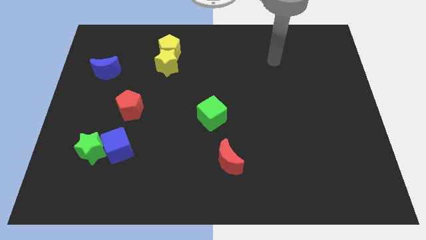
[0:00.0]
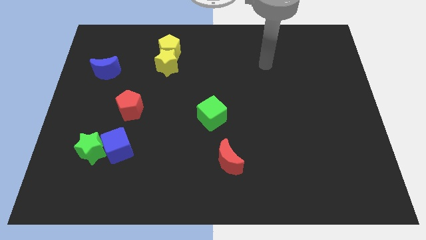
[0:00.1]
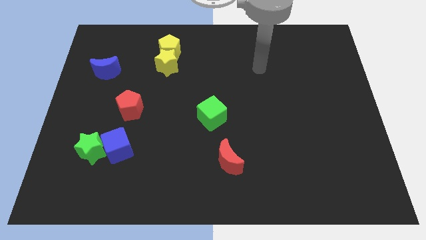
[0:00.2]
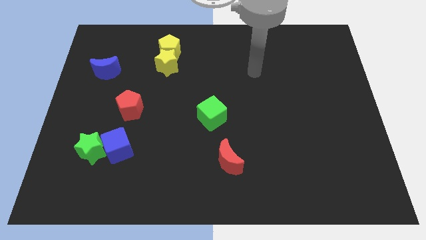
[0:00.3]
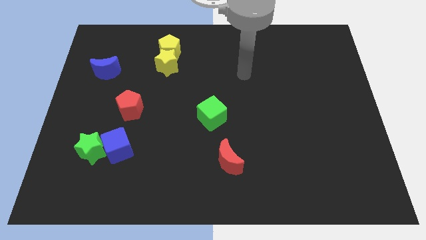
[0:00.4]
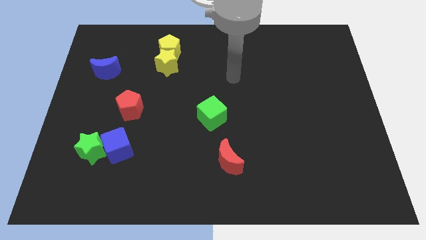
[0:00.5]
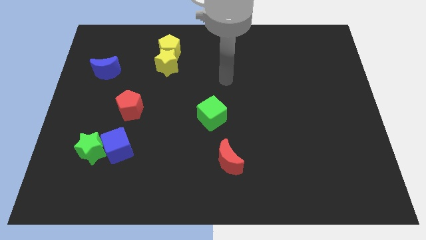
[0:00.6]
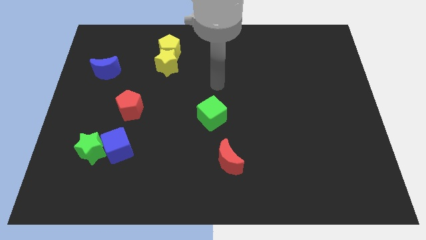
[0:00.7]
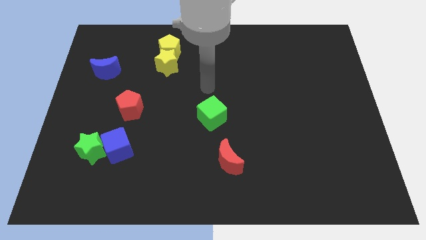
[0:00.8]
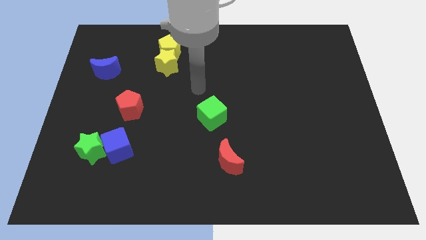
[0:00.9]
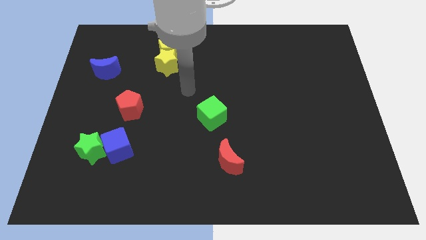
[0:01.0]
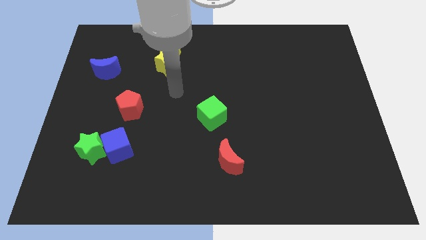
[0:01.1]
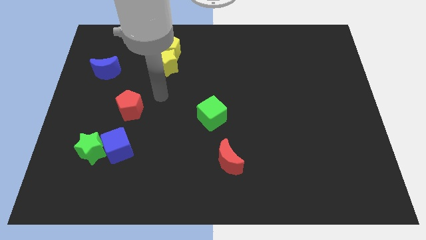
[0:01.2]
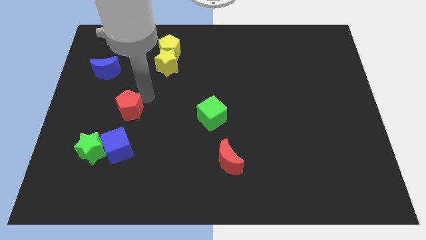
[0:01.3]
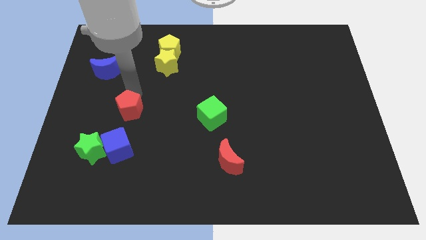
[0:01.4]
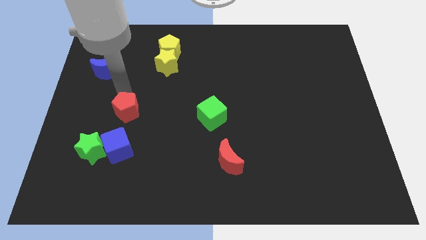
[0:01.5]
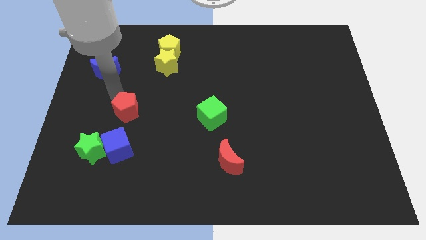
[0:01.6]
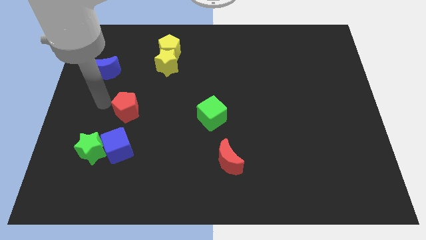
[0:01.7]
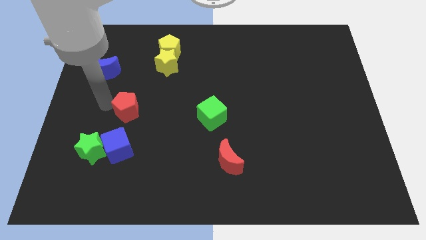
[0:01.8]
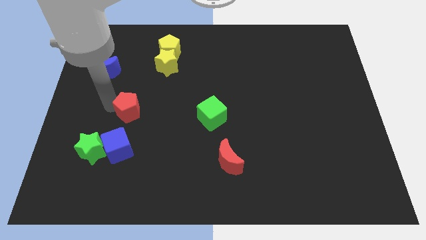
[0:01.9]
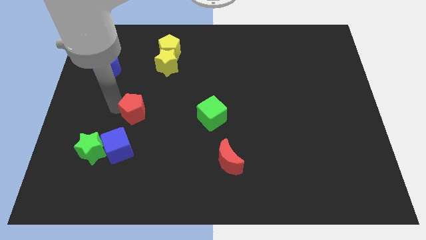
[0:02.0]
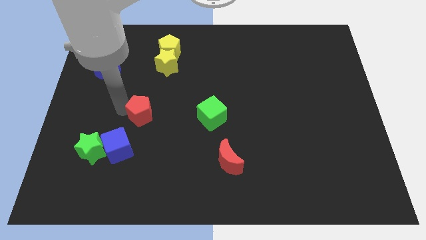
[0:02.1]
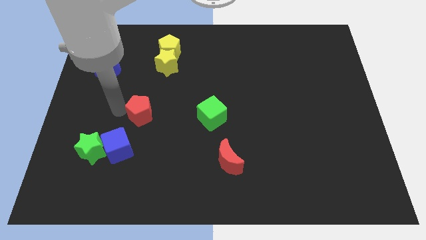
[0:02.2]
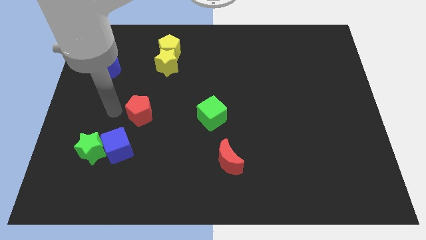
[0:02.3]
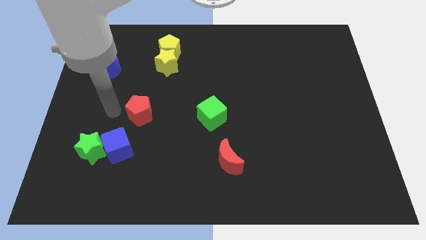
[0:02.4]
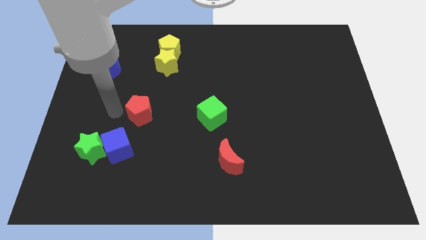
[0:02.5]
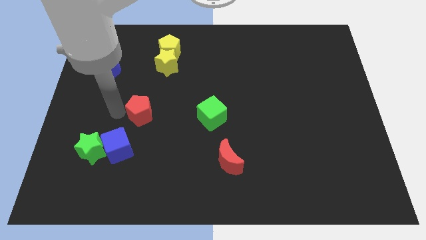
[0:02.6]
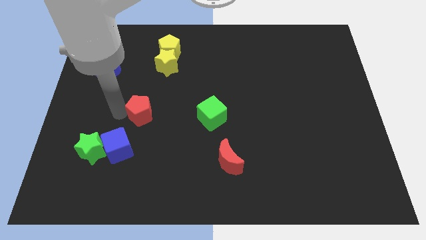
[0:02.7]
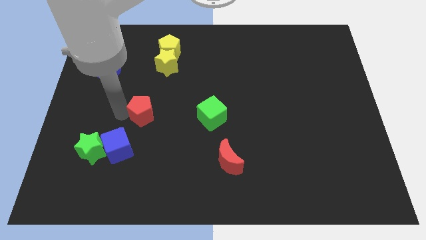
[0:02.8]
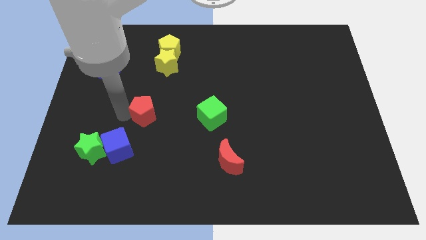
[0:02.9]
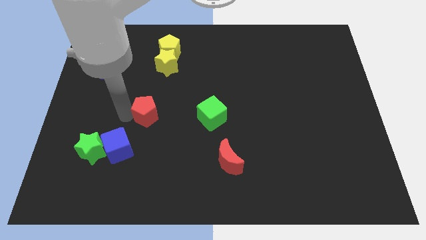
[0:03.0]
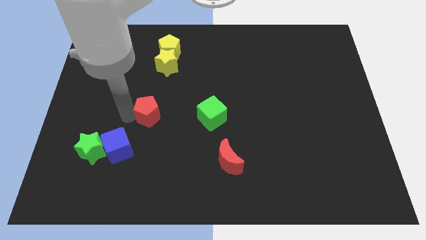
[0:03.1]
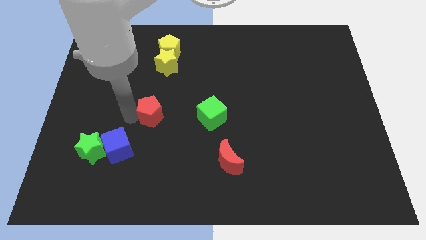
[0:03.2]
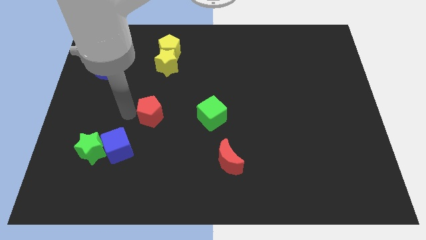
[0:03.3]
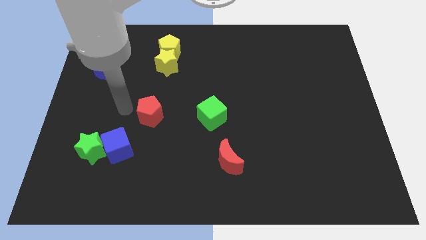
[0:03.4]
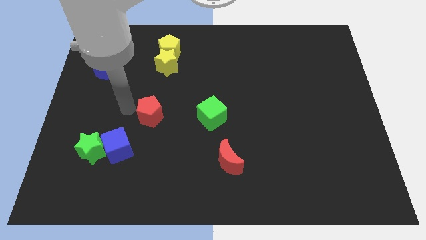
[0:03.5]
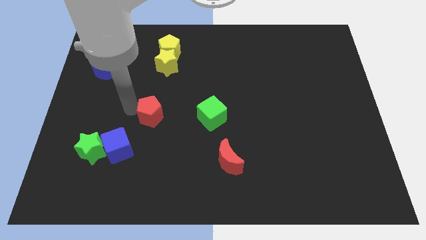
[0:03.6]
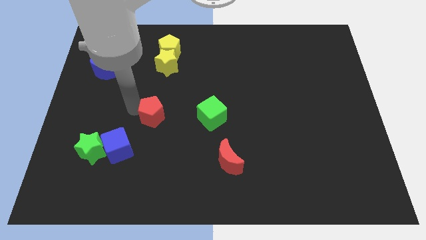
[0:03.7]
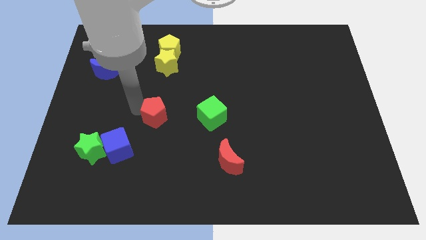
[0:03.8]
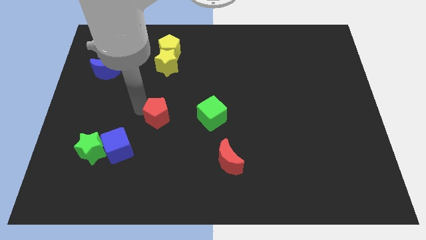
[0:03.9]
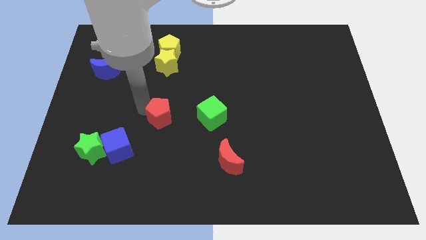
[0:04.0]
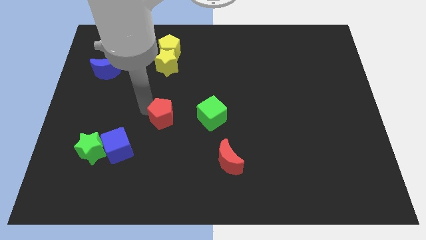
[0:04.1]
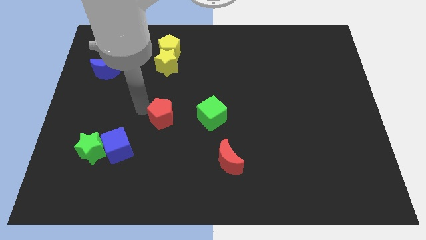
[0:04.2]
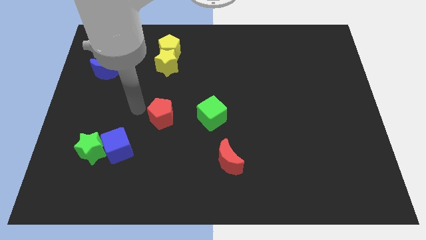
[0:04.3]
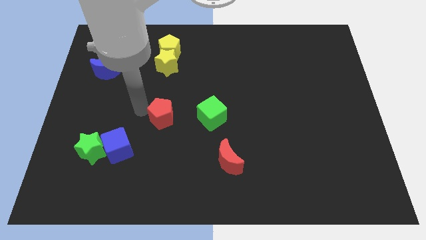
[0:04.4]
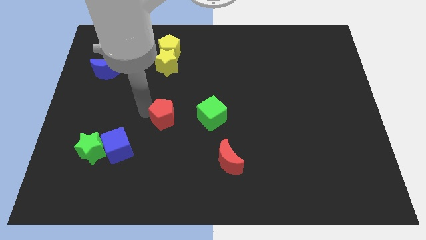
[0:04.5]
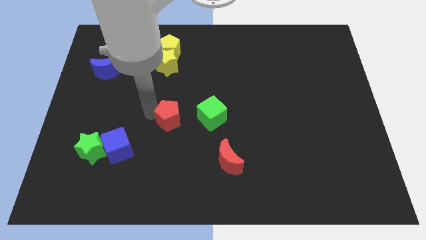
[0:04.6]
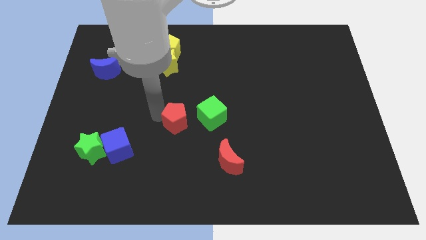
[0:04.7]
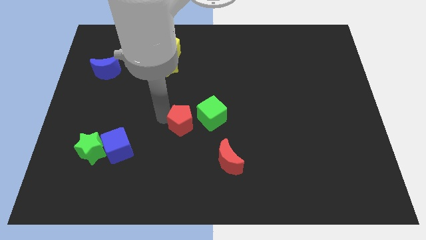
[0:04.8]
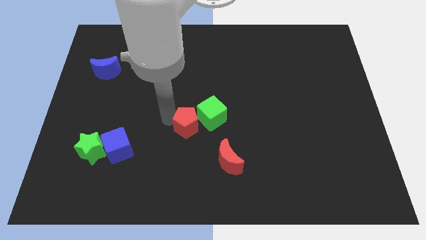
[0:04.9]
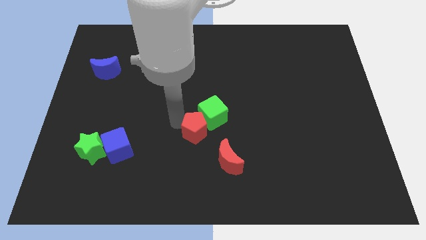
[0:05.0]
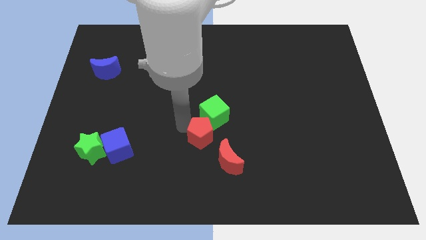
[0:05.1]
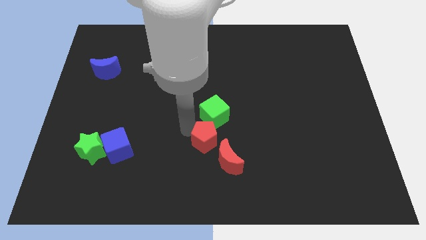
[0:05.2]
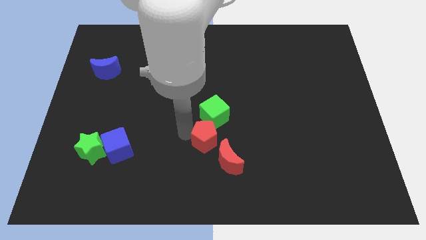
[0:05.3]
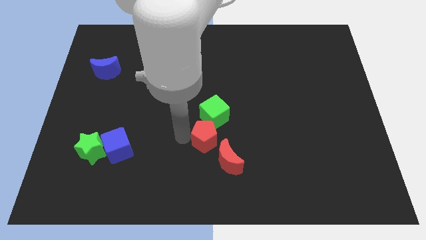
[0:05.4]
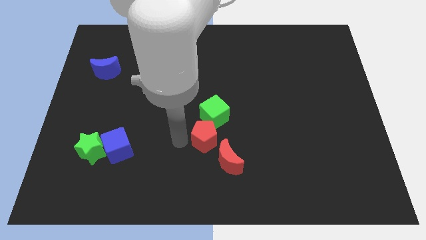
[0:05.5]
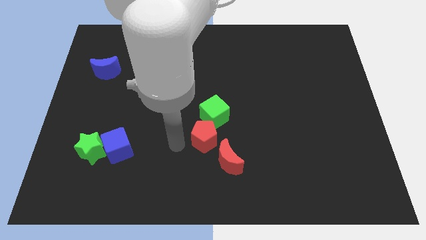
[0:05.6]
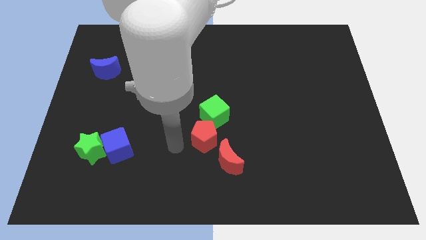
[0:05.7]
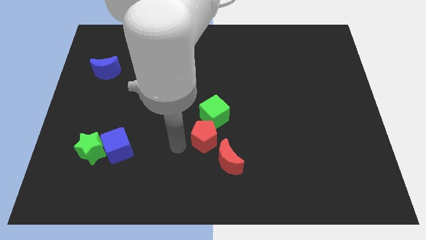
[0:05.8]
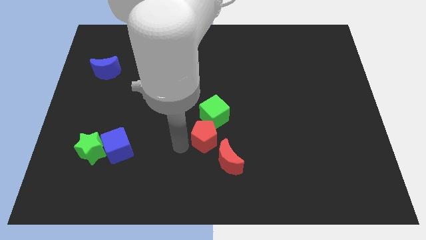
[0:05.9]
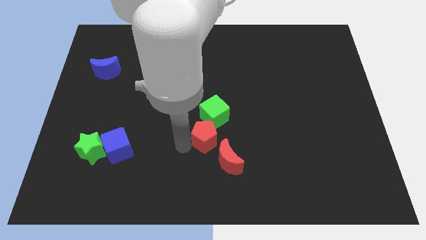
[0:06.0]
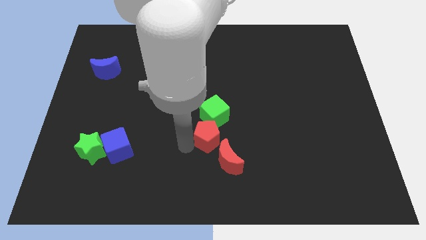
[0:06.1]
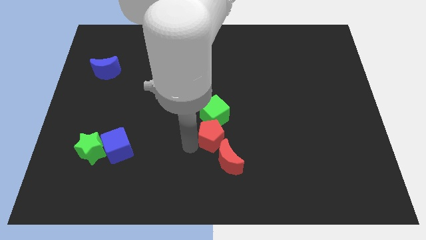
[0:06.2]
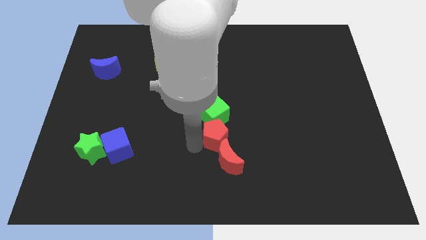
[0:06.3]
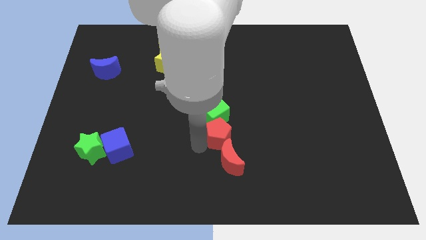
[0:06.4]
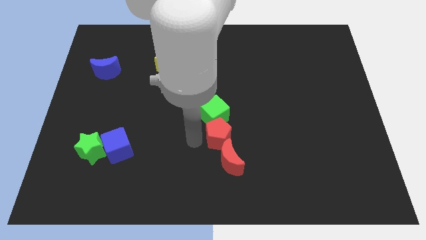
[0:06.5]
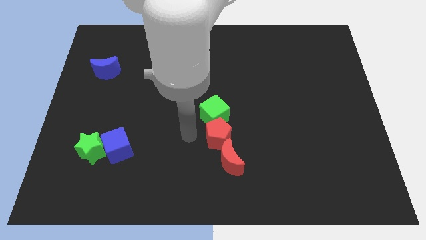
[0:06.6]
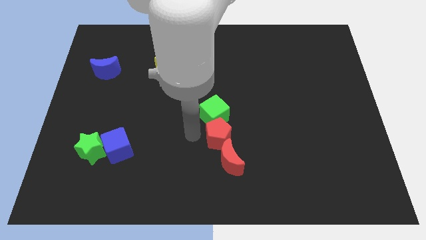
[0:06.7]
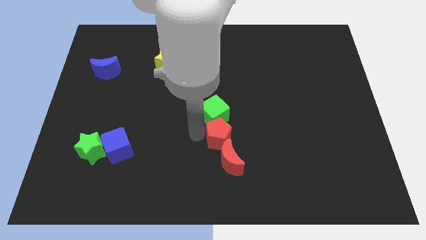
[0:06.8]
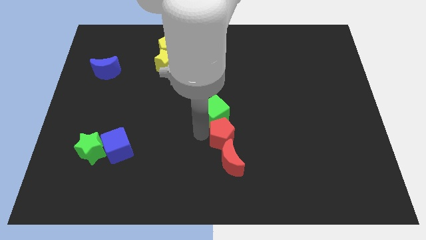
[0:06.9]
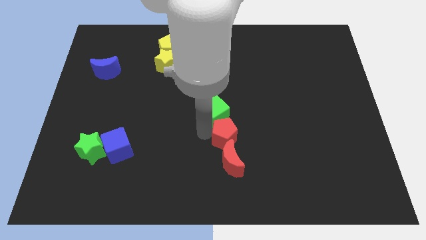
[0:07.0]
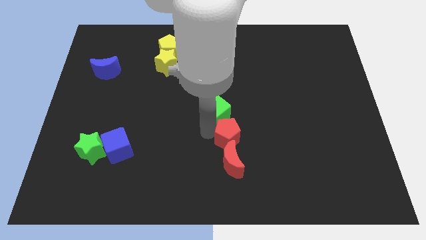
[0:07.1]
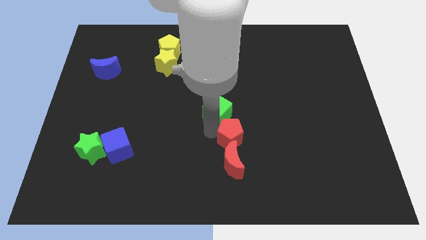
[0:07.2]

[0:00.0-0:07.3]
move the red pentagon diagonally up and to the right of the red moon
